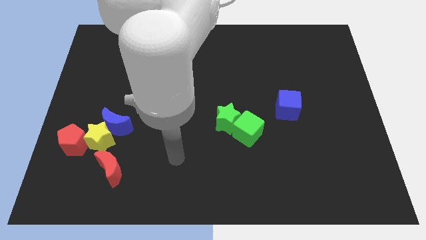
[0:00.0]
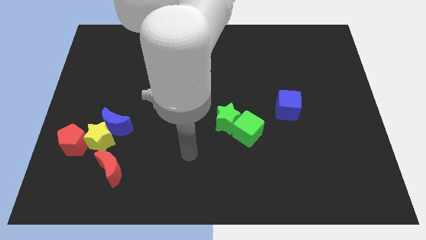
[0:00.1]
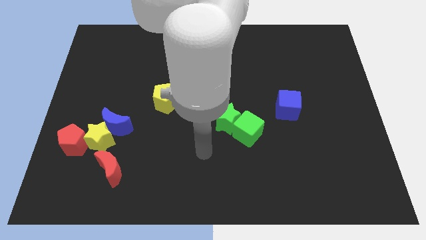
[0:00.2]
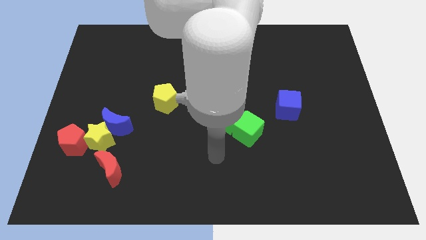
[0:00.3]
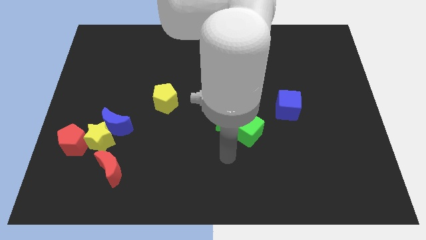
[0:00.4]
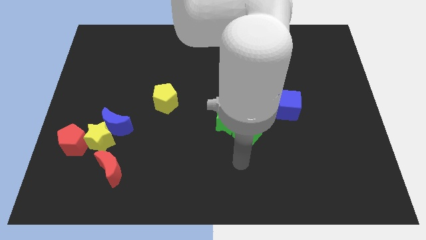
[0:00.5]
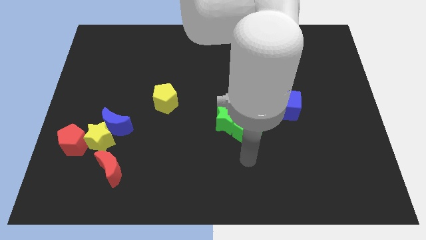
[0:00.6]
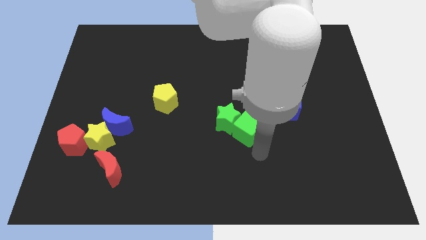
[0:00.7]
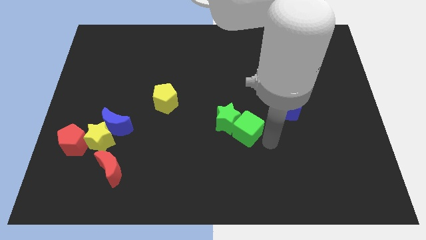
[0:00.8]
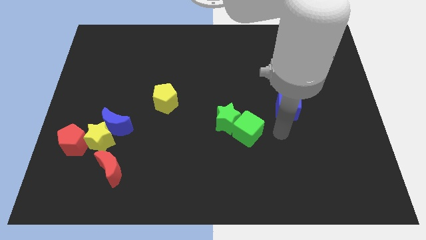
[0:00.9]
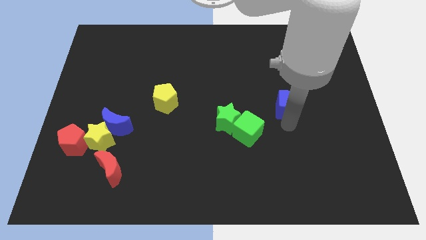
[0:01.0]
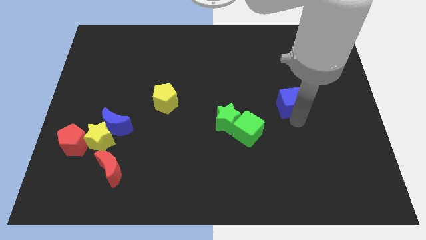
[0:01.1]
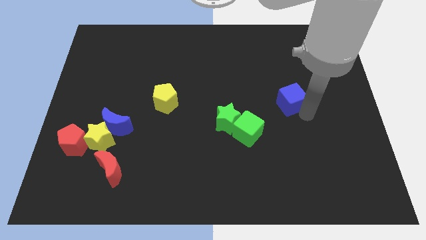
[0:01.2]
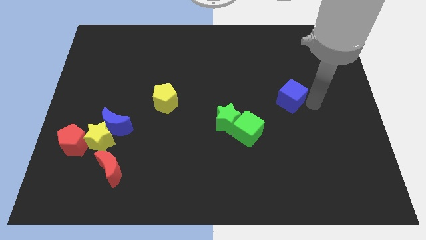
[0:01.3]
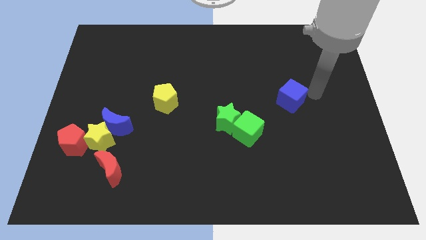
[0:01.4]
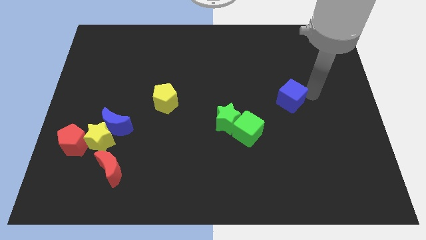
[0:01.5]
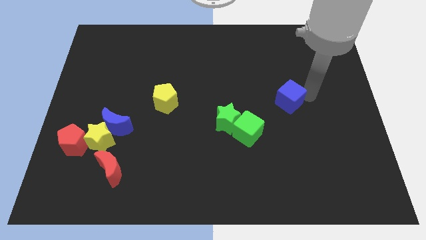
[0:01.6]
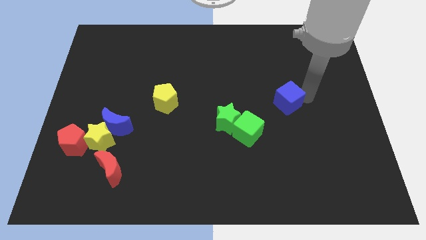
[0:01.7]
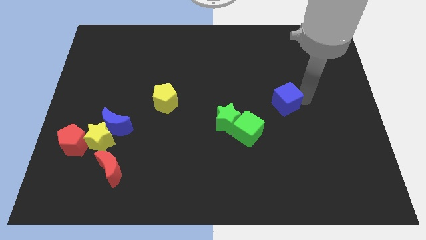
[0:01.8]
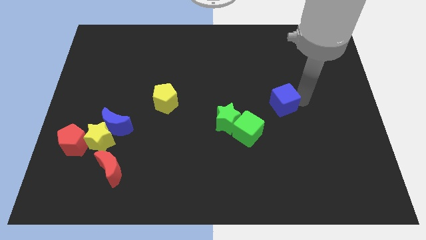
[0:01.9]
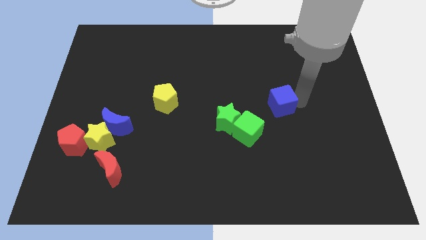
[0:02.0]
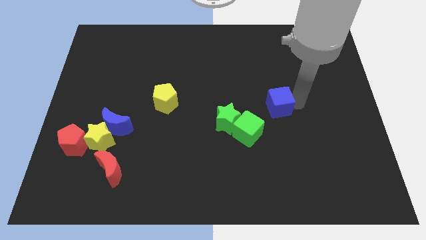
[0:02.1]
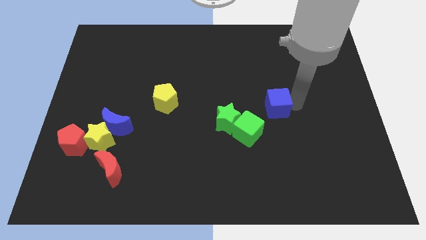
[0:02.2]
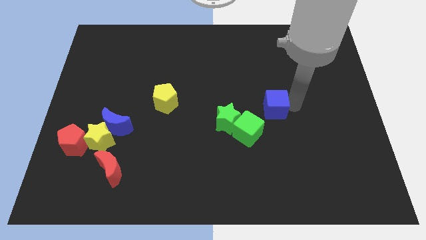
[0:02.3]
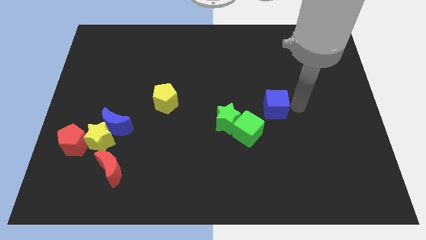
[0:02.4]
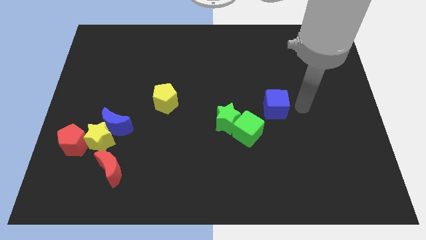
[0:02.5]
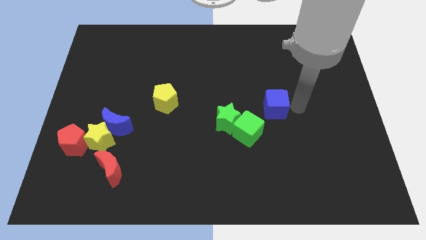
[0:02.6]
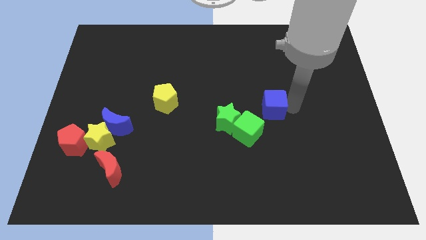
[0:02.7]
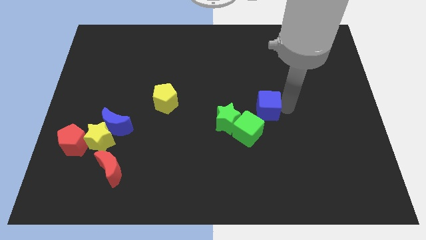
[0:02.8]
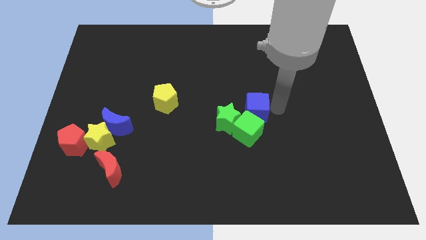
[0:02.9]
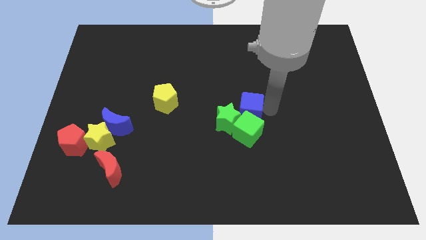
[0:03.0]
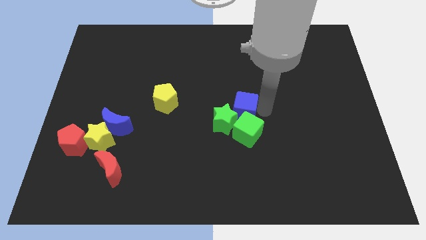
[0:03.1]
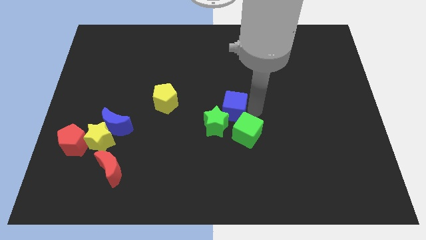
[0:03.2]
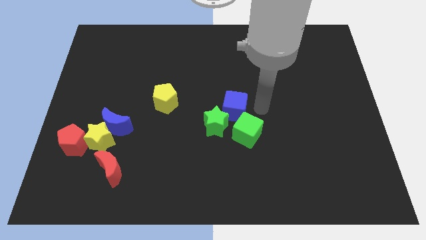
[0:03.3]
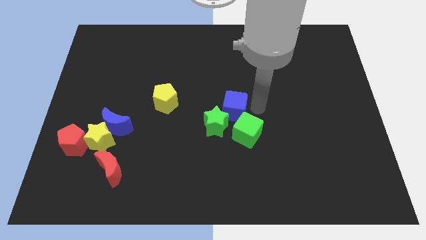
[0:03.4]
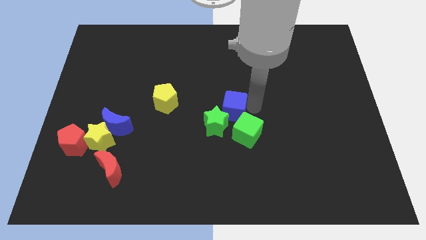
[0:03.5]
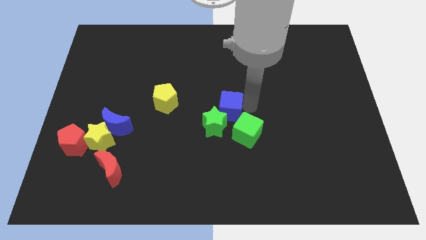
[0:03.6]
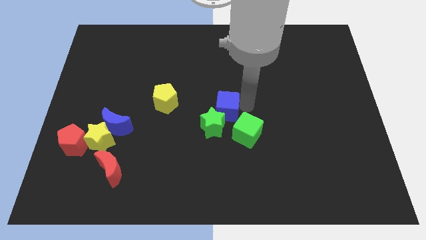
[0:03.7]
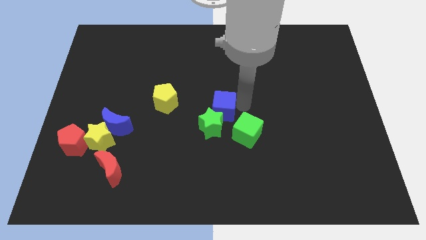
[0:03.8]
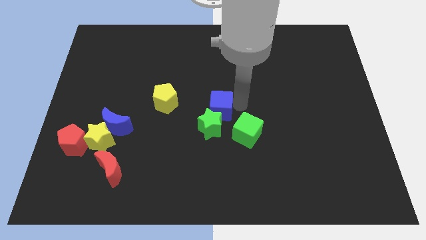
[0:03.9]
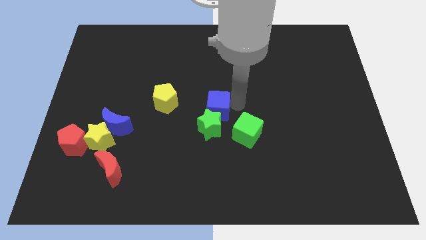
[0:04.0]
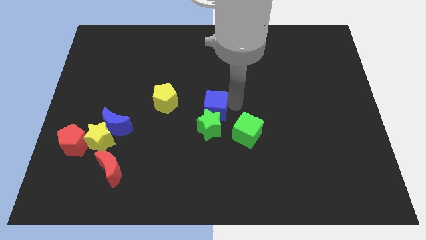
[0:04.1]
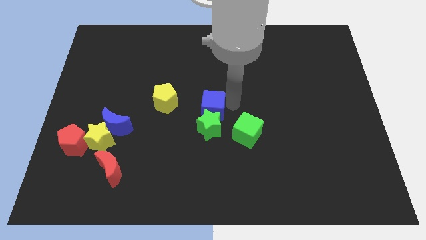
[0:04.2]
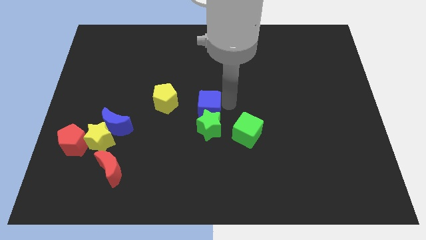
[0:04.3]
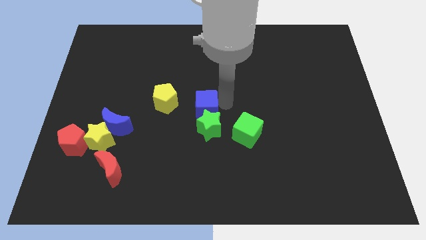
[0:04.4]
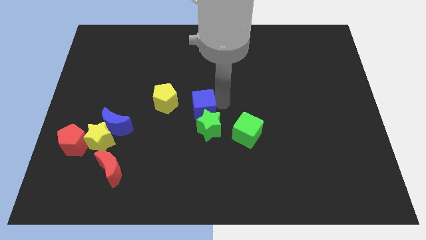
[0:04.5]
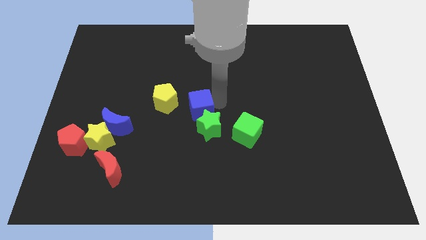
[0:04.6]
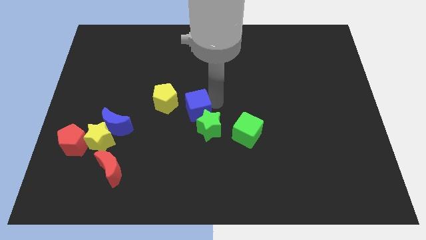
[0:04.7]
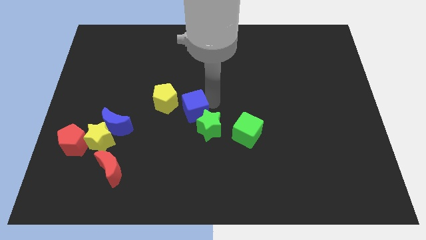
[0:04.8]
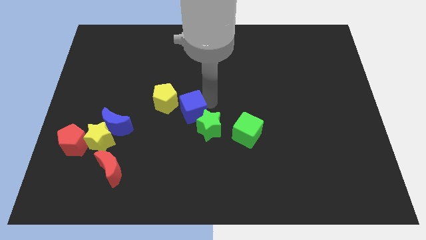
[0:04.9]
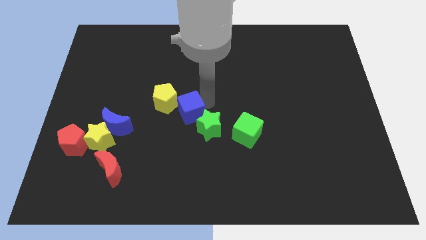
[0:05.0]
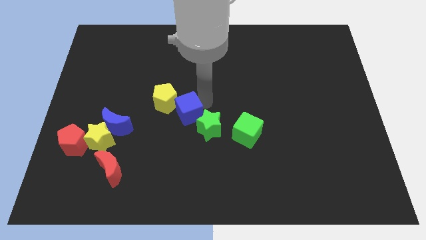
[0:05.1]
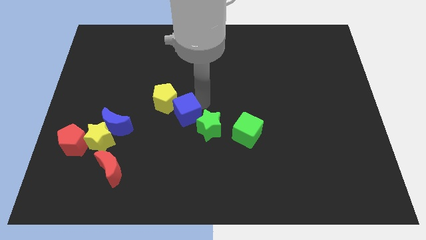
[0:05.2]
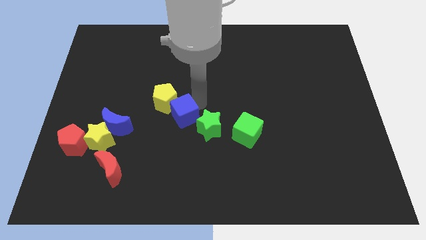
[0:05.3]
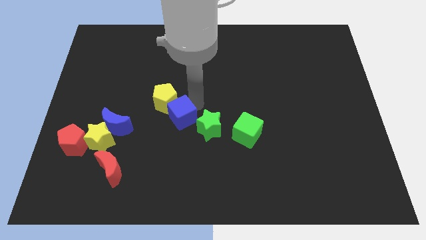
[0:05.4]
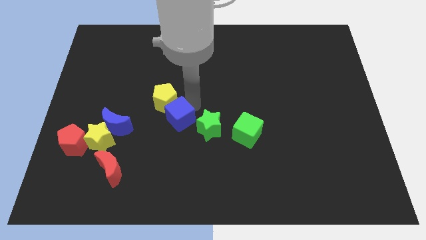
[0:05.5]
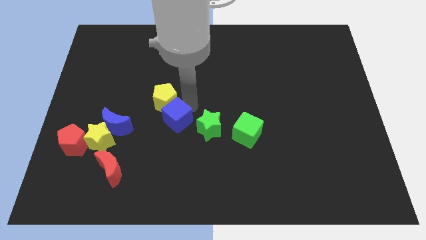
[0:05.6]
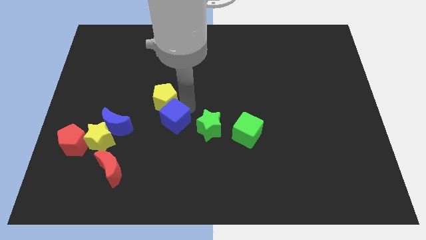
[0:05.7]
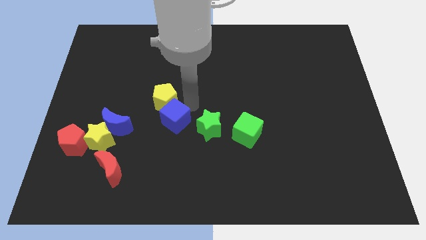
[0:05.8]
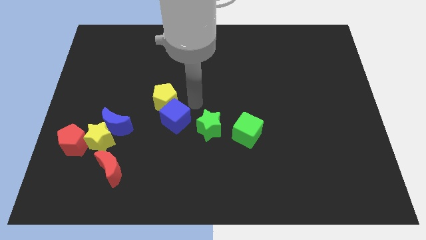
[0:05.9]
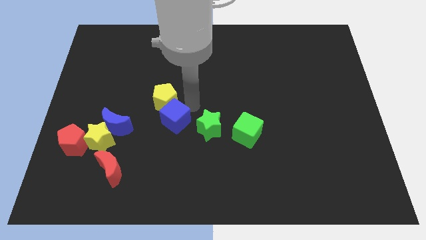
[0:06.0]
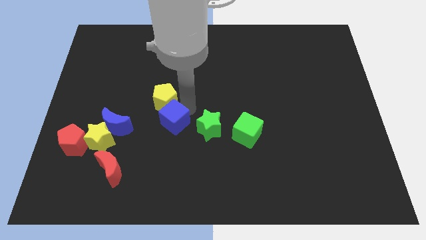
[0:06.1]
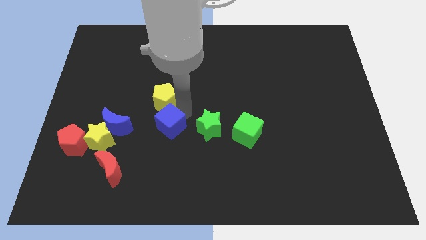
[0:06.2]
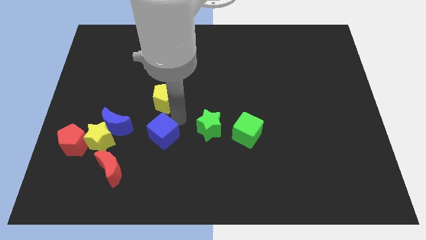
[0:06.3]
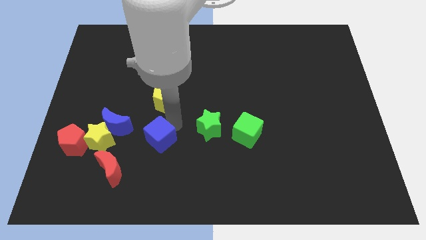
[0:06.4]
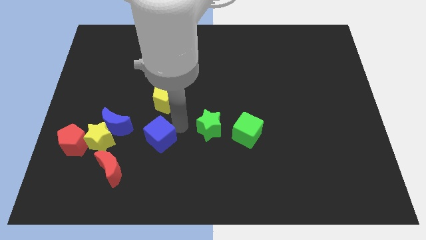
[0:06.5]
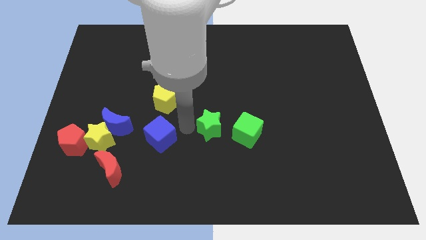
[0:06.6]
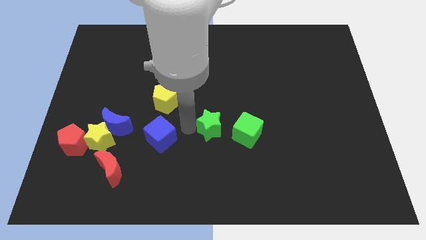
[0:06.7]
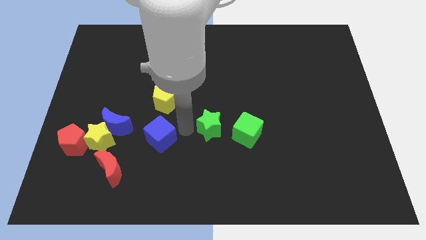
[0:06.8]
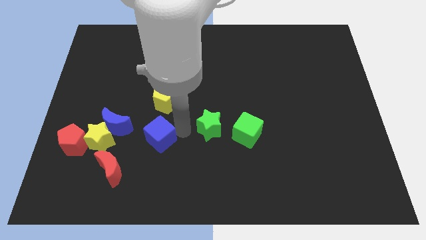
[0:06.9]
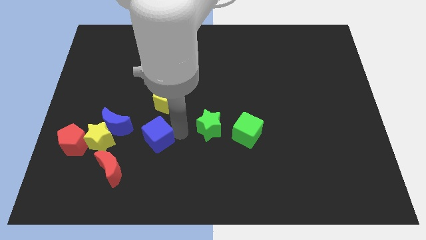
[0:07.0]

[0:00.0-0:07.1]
put the blue cube to the bottom right of the blue moon

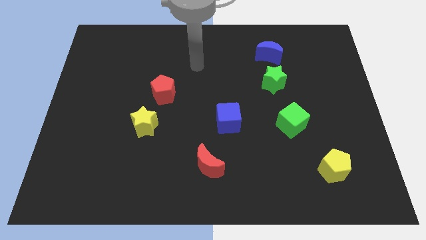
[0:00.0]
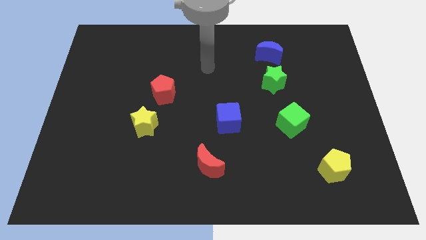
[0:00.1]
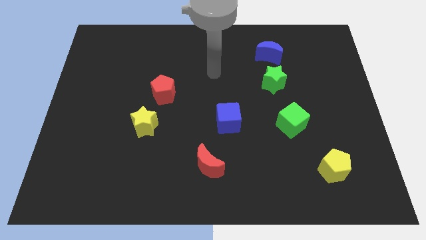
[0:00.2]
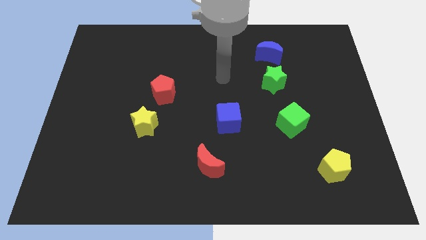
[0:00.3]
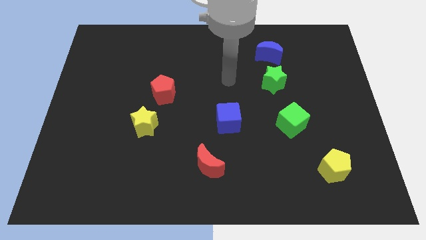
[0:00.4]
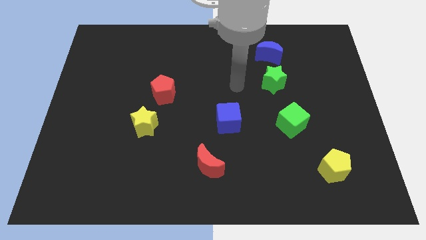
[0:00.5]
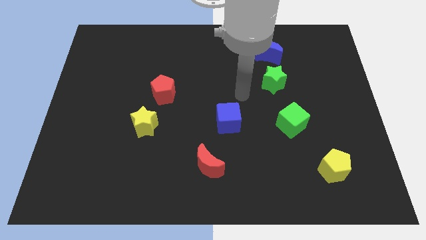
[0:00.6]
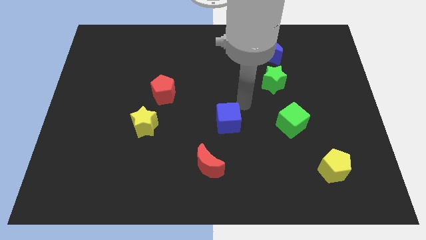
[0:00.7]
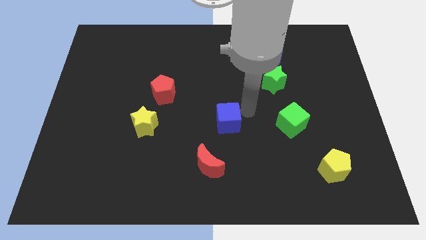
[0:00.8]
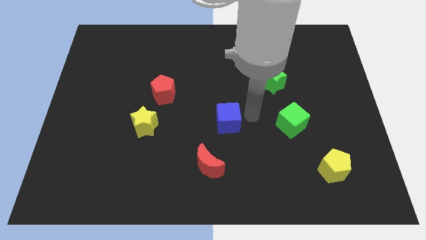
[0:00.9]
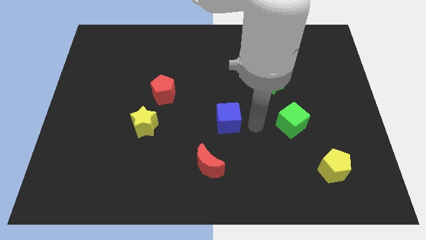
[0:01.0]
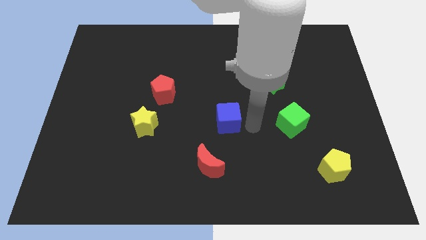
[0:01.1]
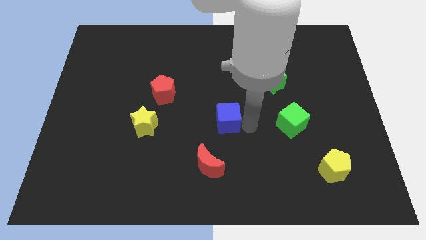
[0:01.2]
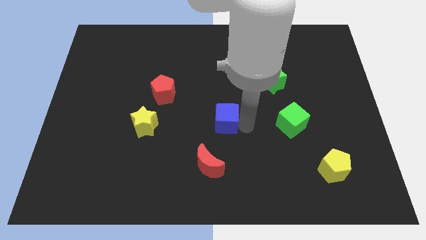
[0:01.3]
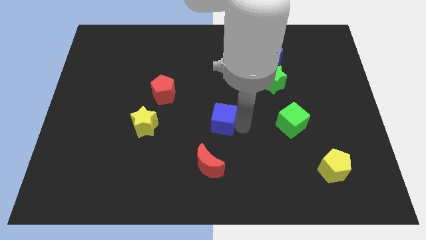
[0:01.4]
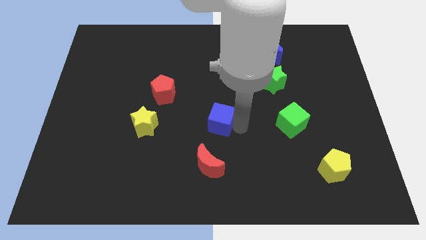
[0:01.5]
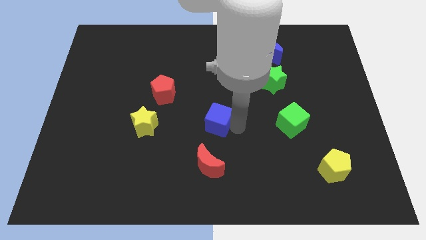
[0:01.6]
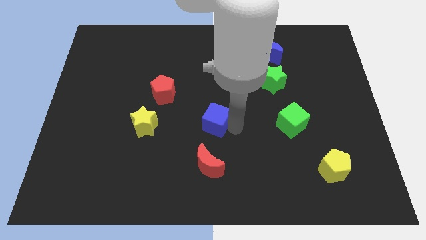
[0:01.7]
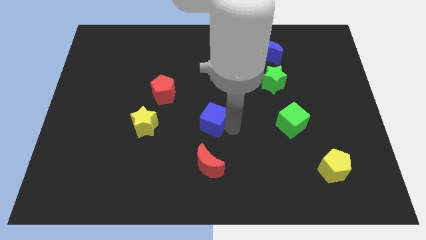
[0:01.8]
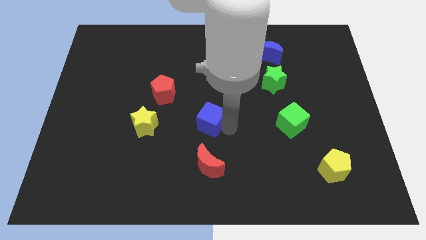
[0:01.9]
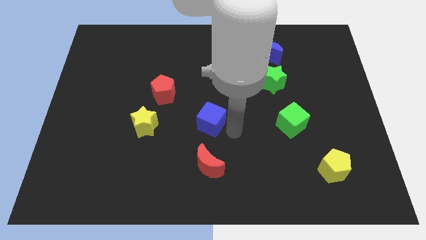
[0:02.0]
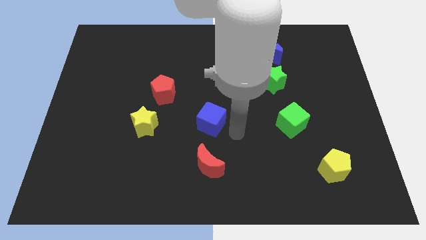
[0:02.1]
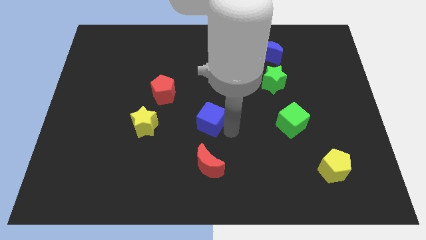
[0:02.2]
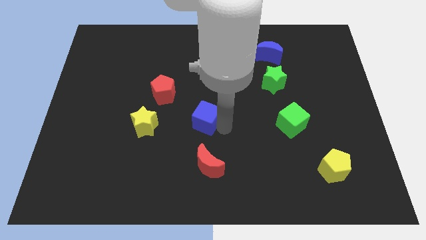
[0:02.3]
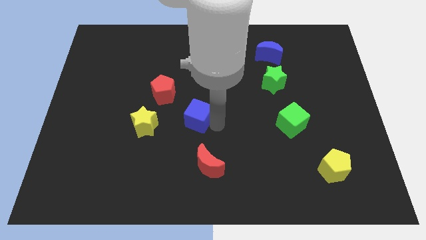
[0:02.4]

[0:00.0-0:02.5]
put the blue cube to the bottom right of the red pentagon
